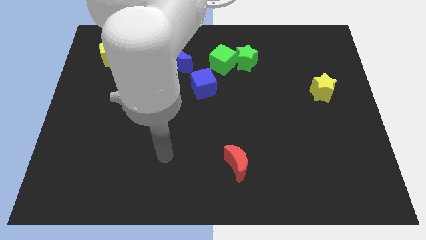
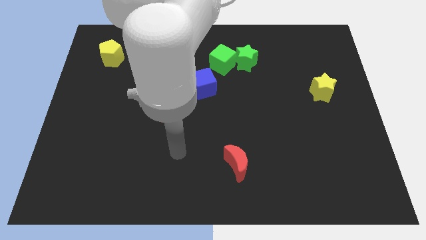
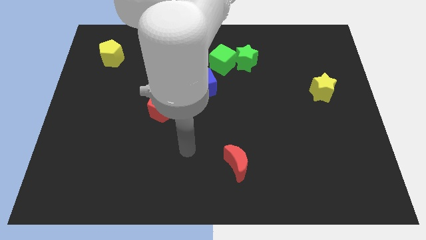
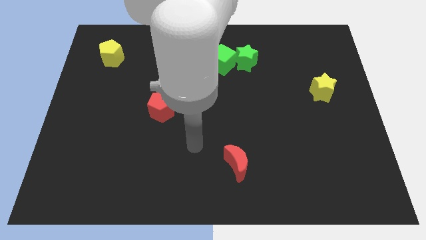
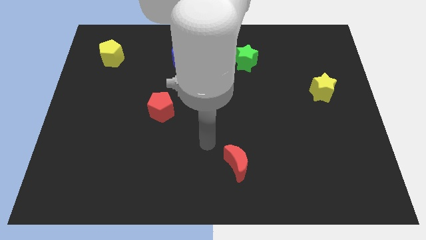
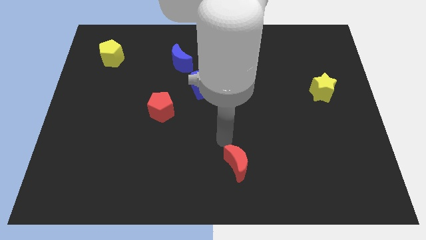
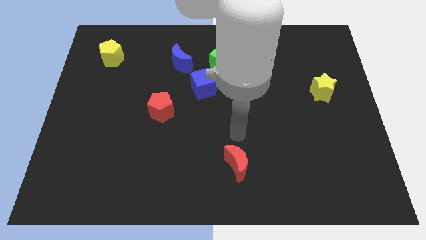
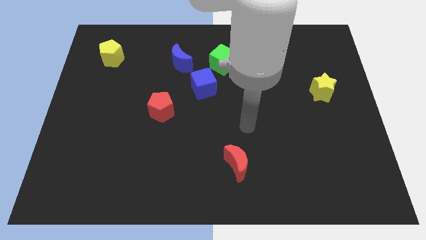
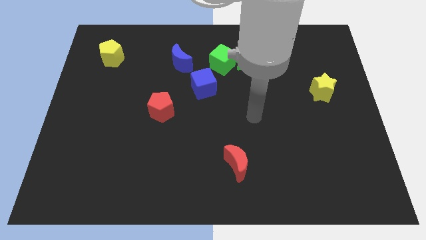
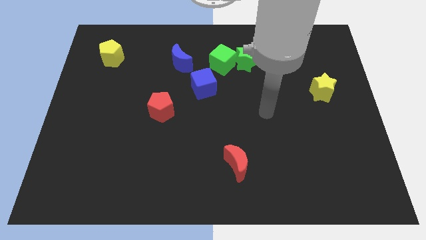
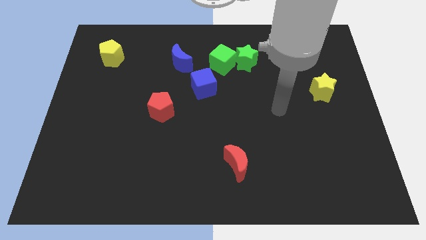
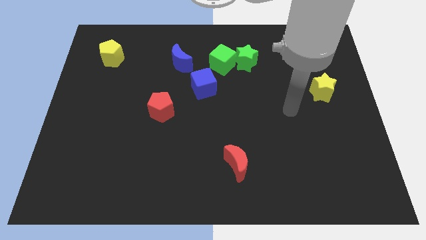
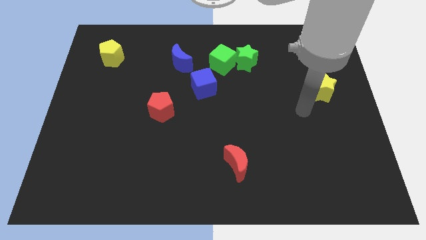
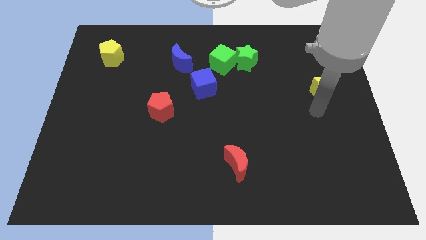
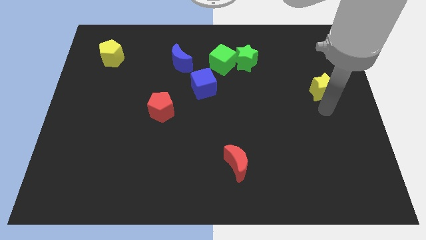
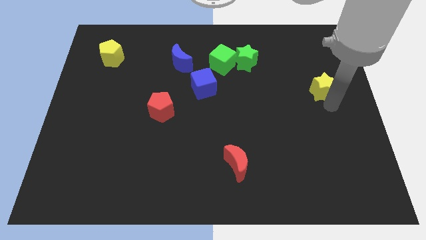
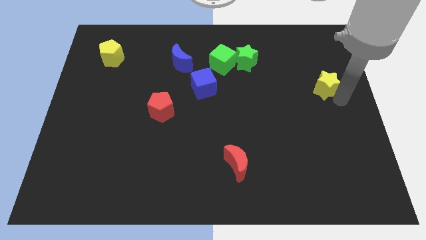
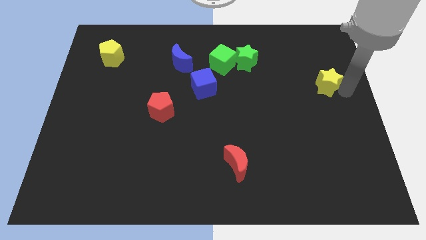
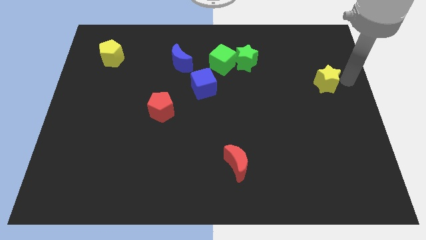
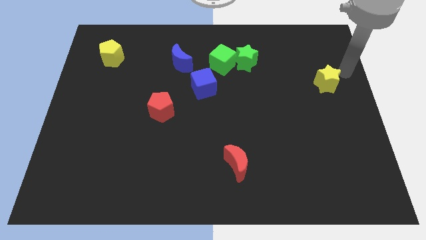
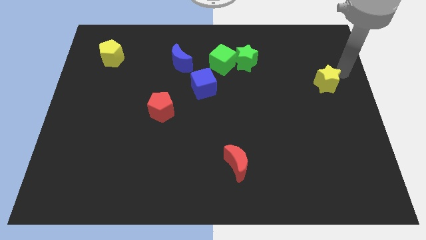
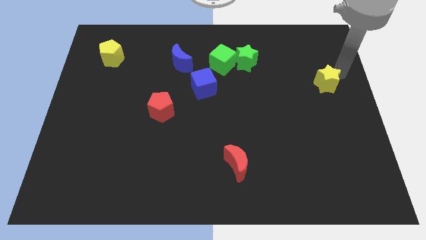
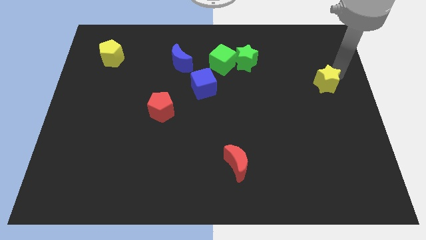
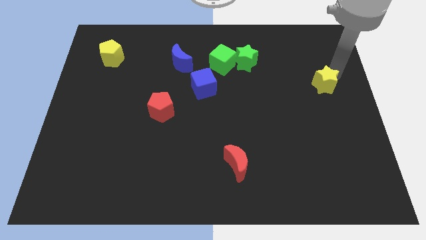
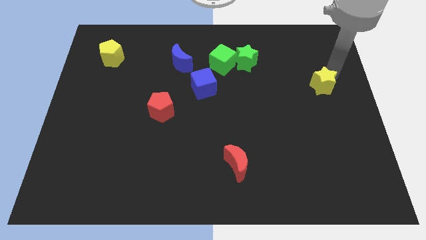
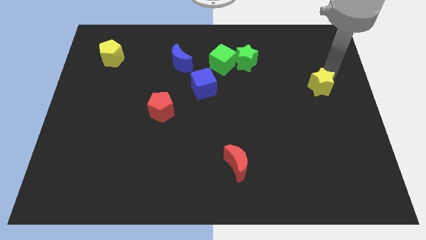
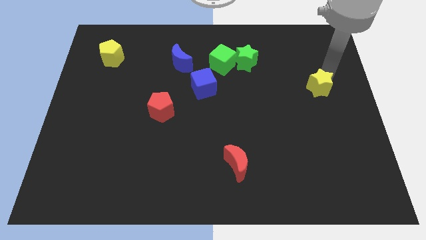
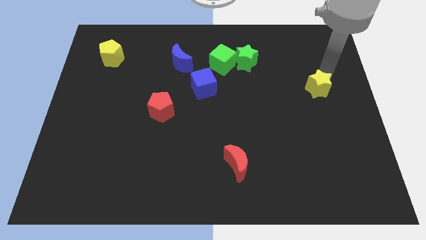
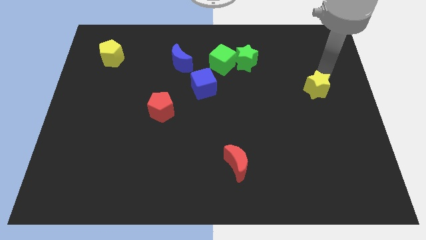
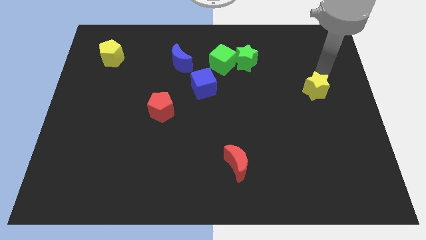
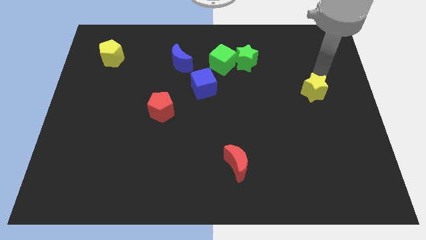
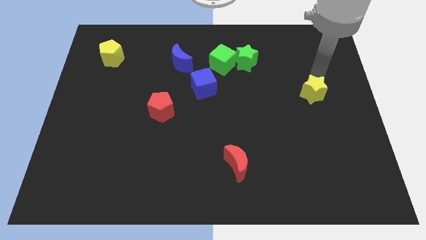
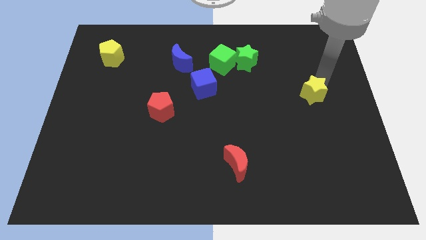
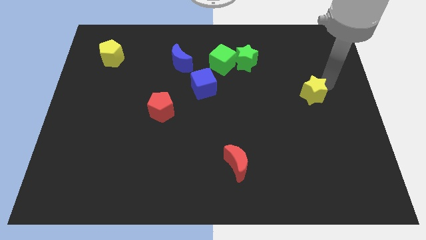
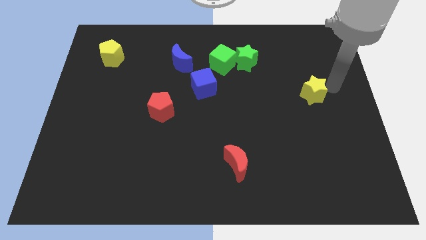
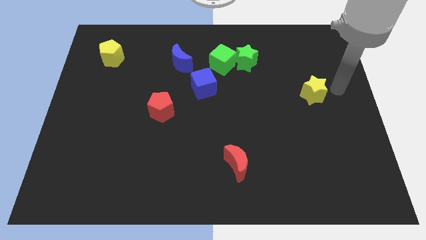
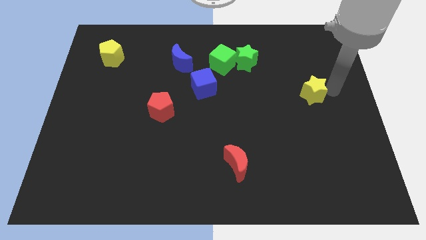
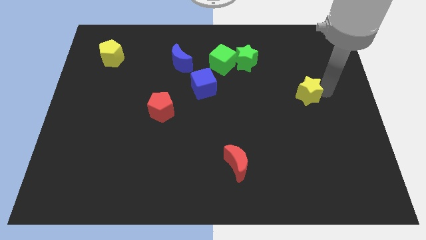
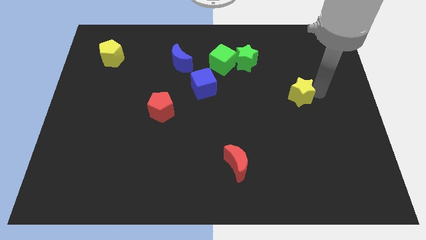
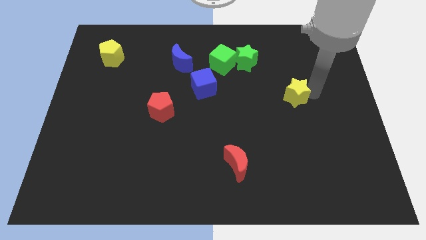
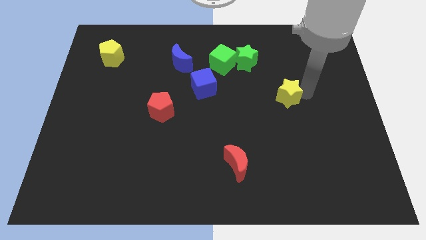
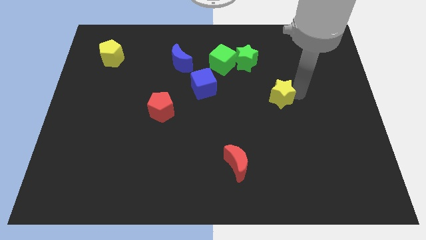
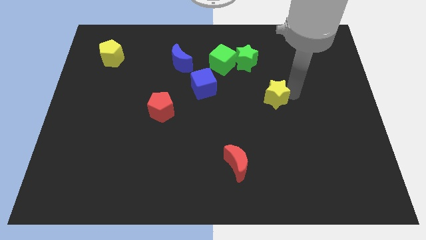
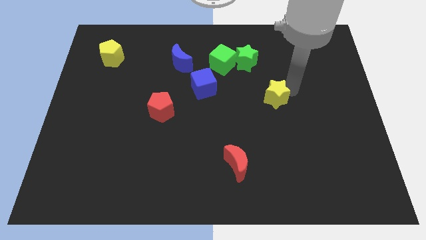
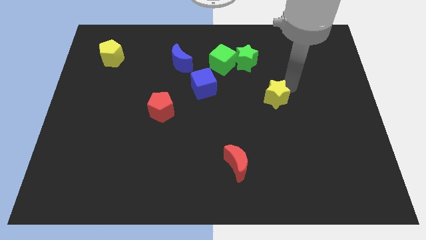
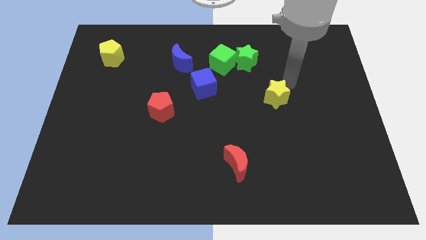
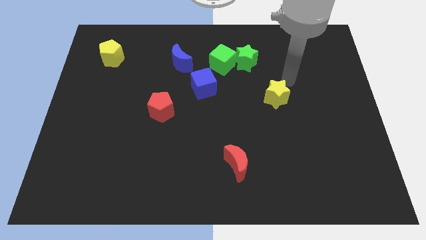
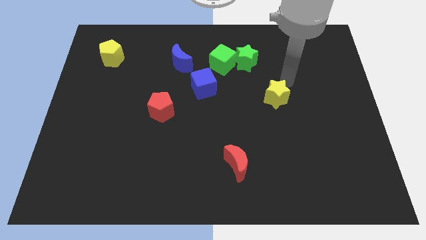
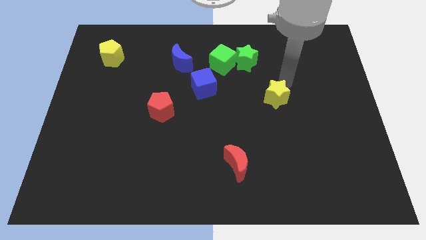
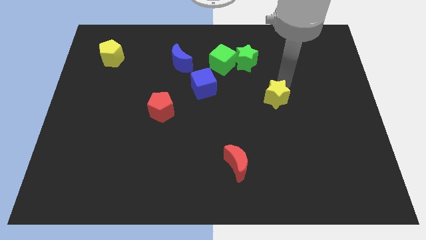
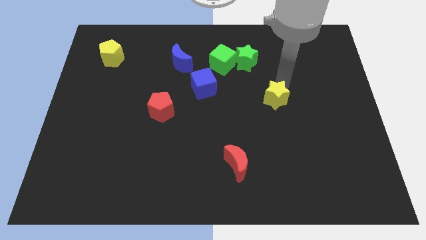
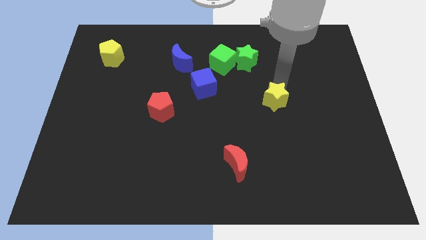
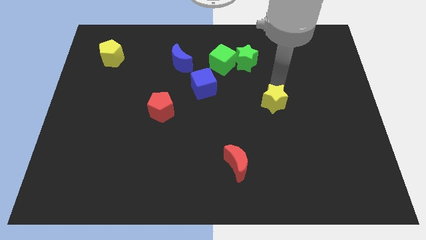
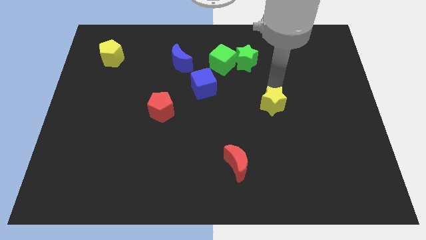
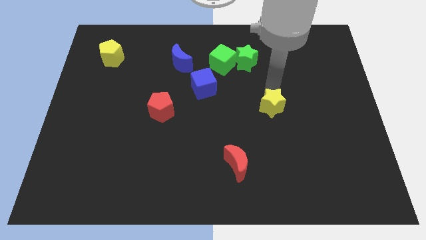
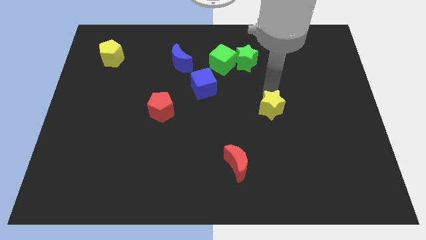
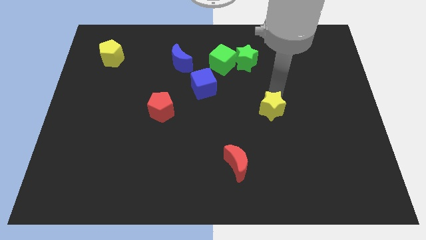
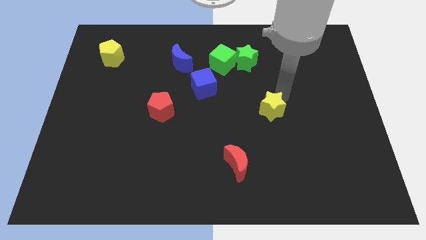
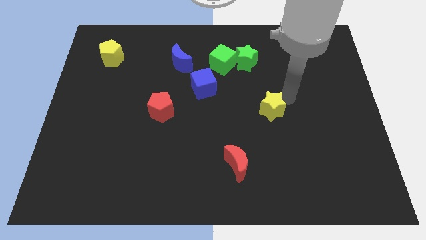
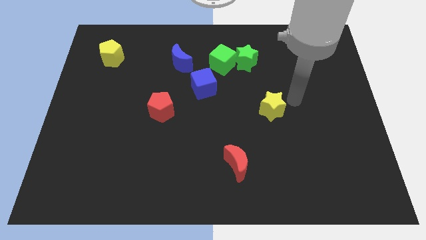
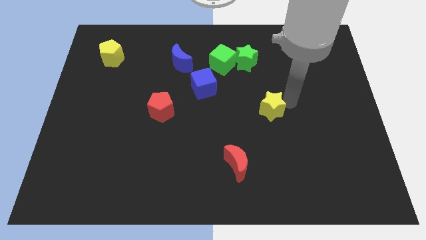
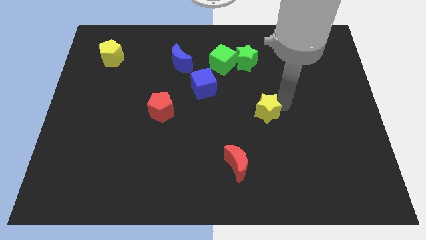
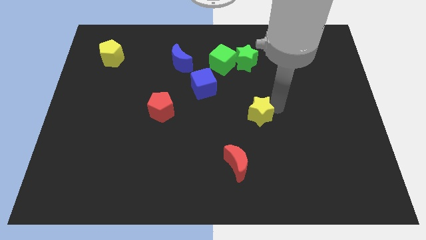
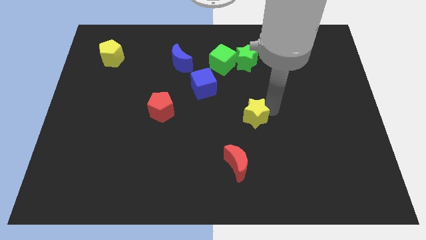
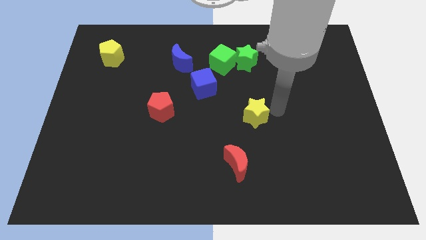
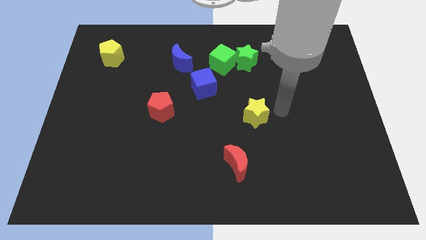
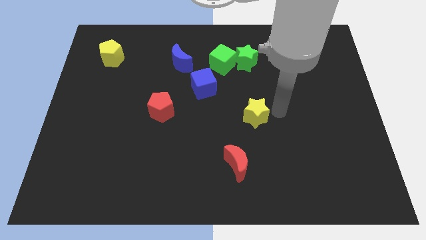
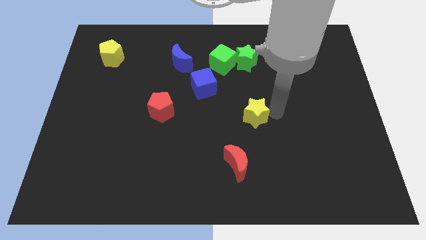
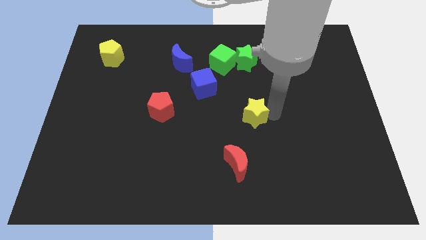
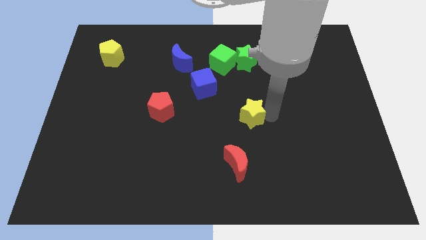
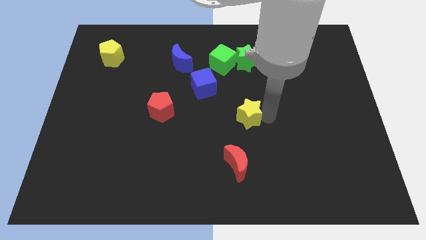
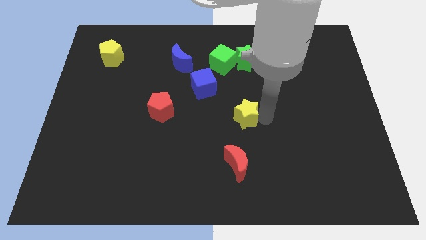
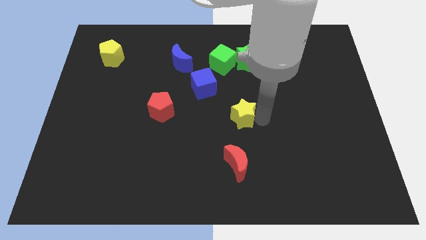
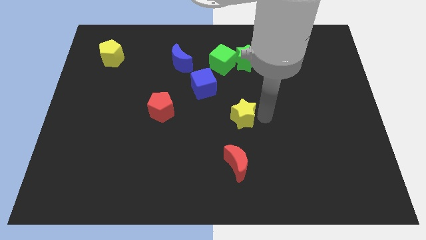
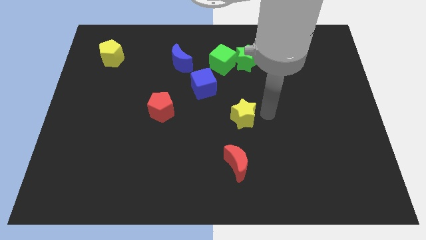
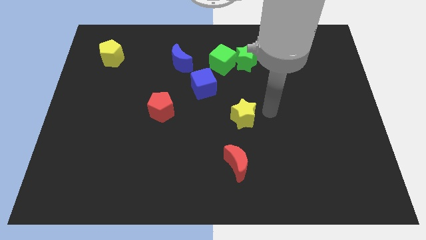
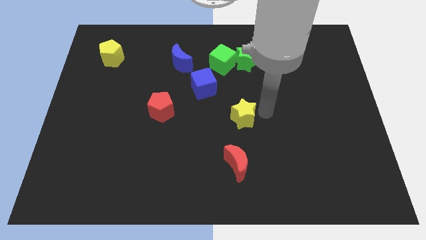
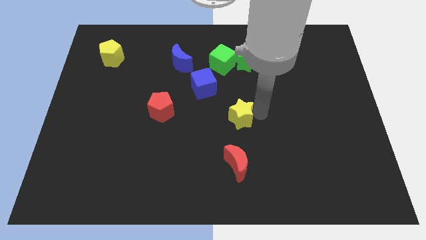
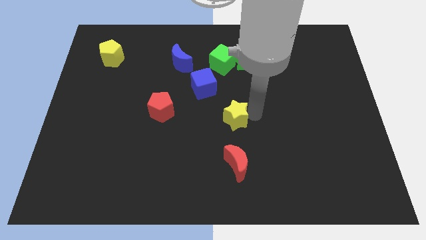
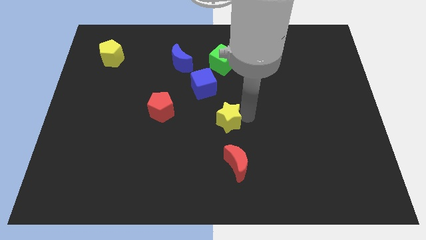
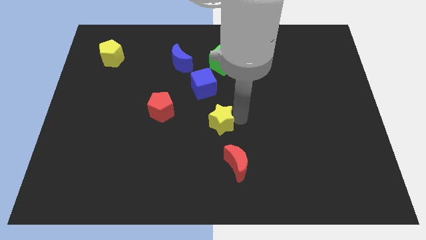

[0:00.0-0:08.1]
push the yellow star below the blue cube
